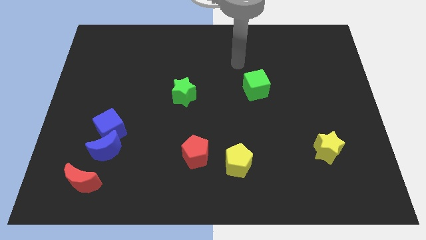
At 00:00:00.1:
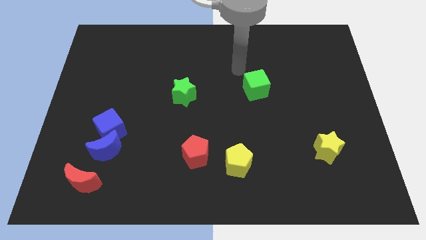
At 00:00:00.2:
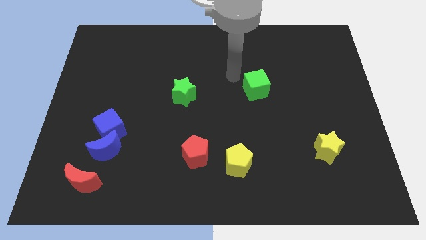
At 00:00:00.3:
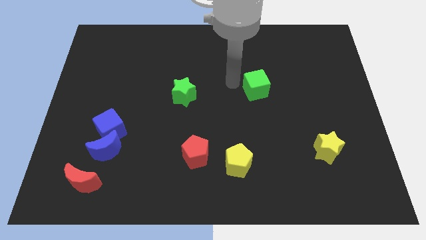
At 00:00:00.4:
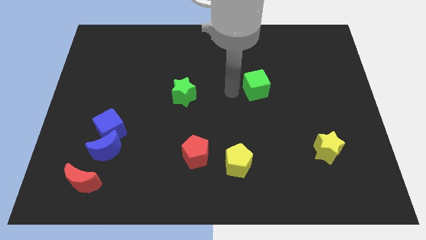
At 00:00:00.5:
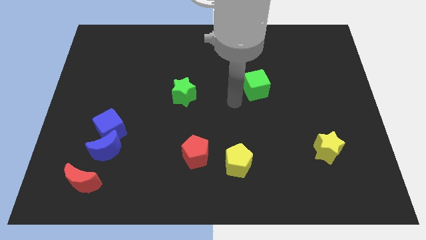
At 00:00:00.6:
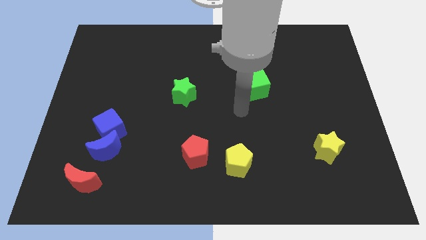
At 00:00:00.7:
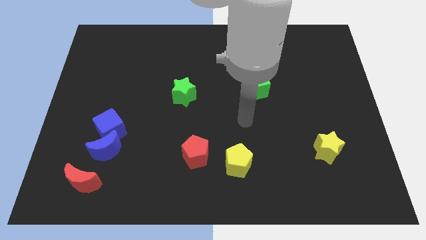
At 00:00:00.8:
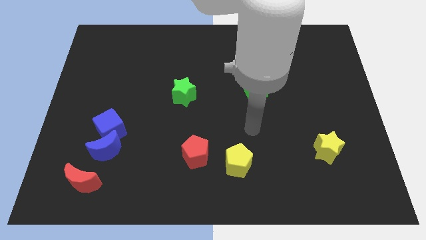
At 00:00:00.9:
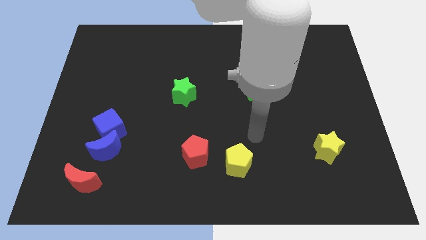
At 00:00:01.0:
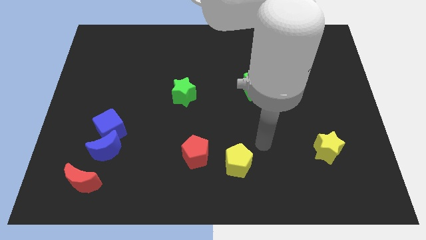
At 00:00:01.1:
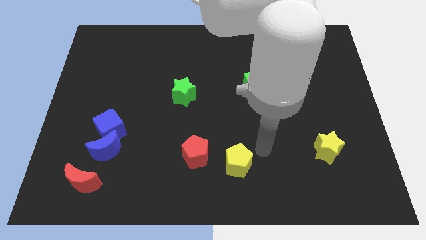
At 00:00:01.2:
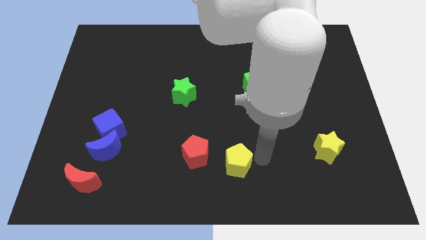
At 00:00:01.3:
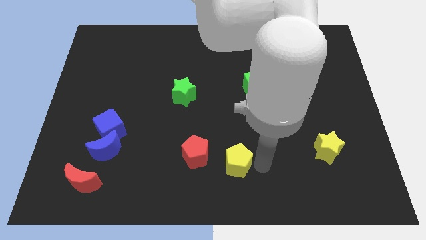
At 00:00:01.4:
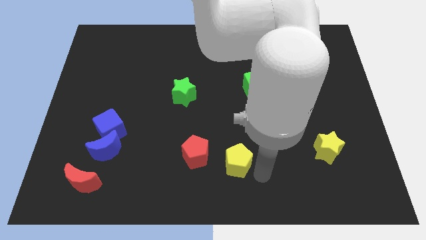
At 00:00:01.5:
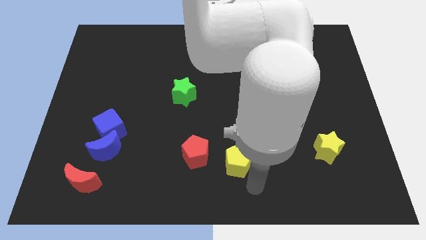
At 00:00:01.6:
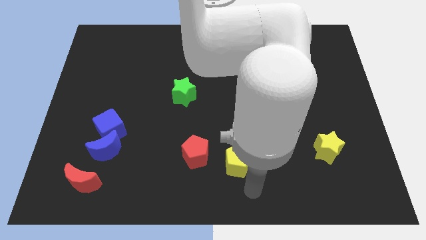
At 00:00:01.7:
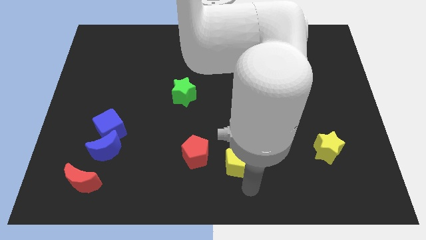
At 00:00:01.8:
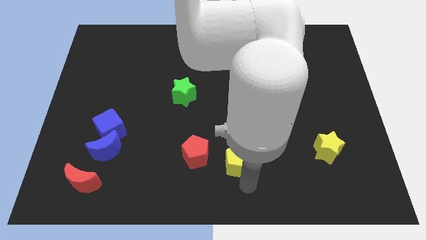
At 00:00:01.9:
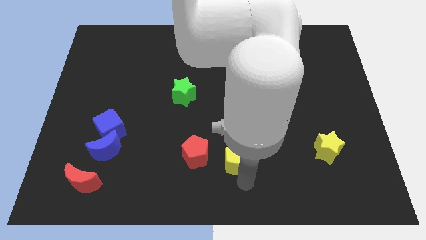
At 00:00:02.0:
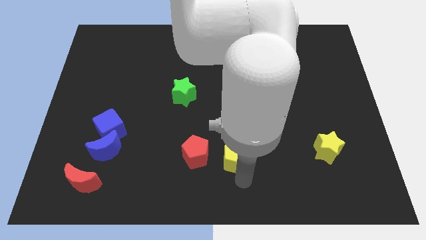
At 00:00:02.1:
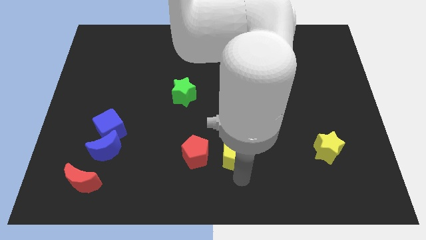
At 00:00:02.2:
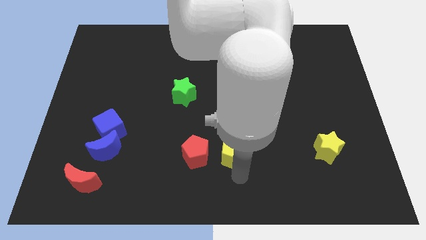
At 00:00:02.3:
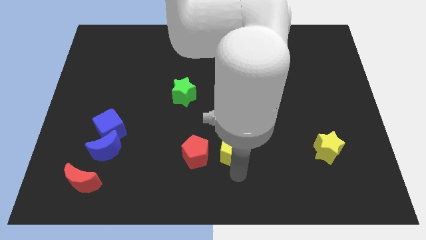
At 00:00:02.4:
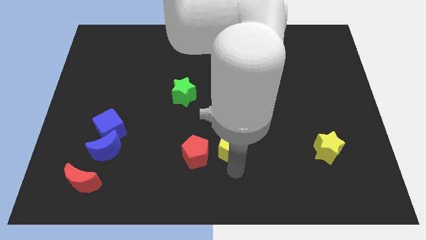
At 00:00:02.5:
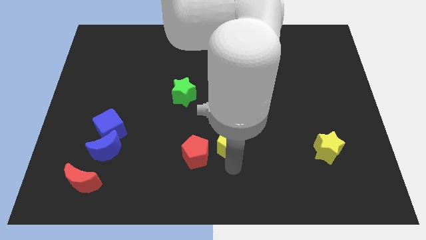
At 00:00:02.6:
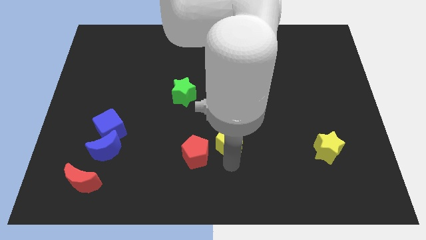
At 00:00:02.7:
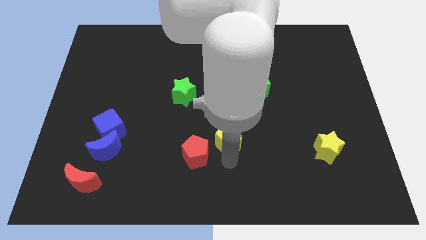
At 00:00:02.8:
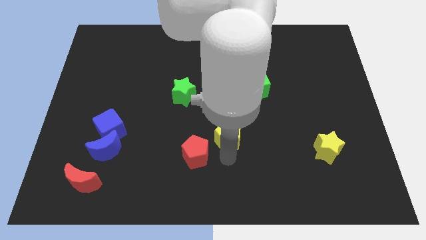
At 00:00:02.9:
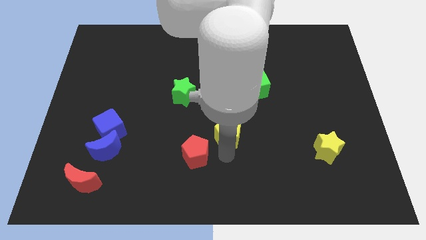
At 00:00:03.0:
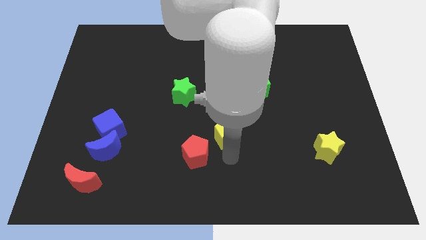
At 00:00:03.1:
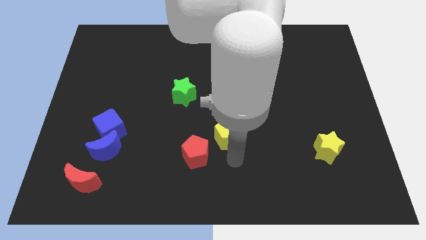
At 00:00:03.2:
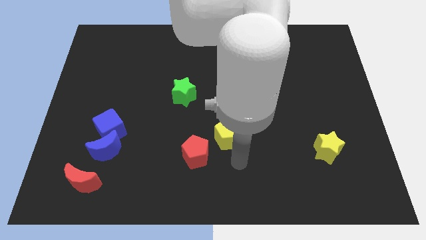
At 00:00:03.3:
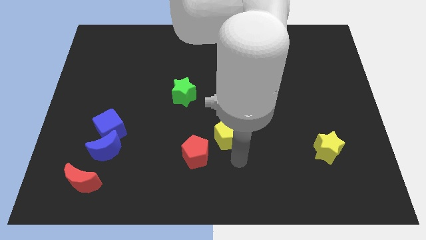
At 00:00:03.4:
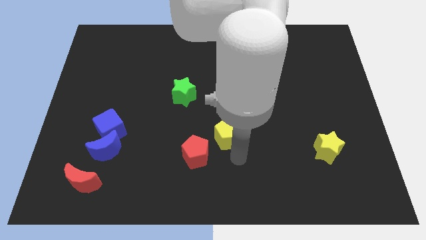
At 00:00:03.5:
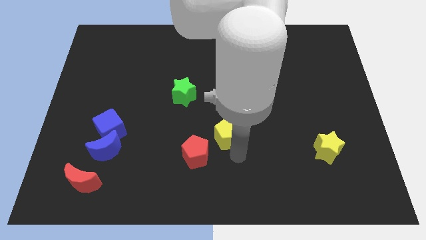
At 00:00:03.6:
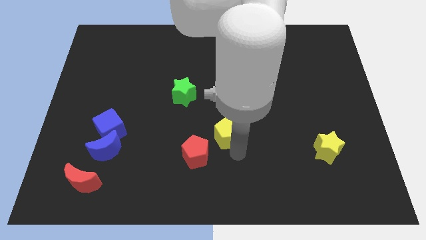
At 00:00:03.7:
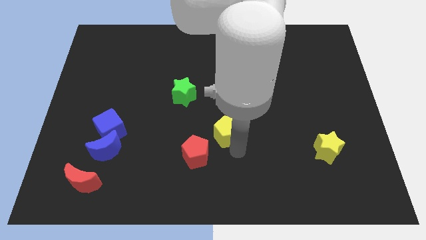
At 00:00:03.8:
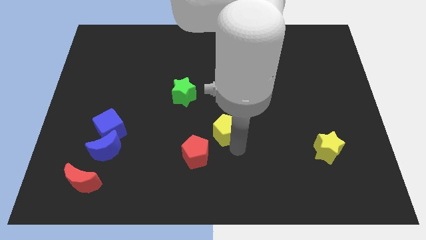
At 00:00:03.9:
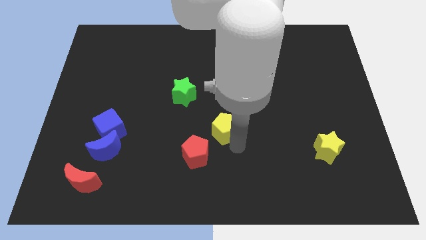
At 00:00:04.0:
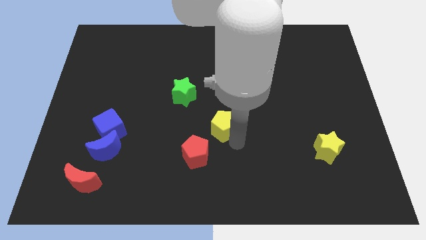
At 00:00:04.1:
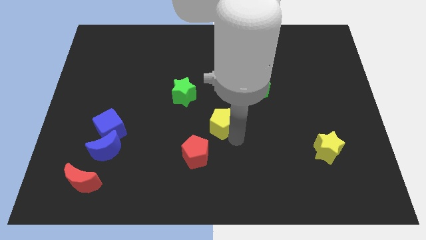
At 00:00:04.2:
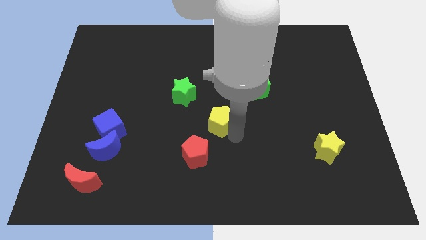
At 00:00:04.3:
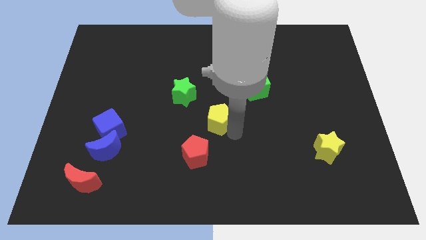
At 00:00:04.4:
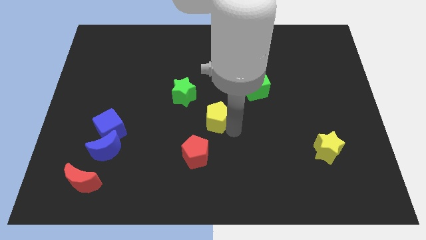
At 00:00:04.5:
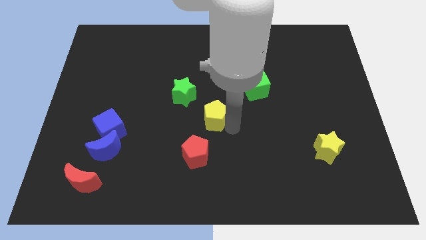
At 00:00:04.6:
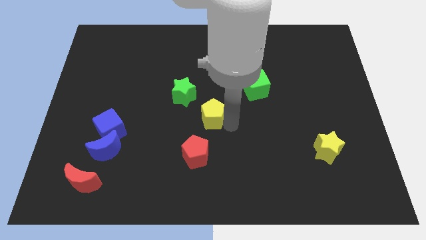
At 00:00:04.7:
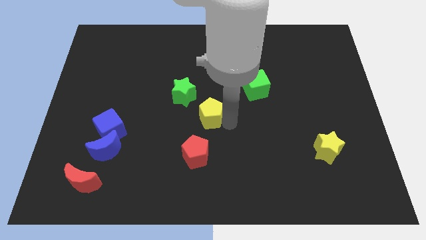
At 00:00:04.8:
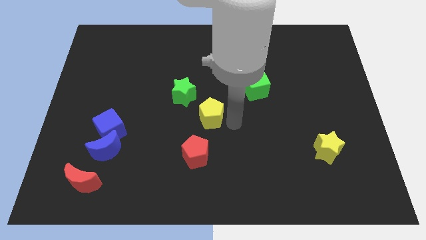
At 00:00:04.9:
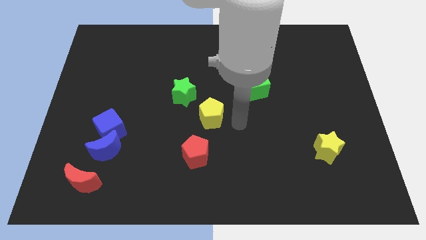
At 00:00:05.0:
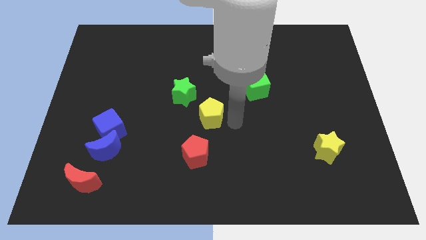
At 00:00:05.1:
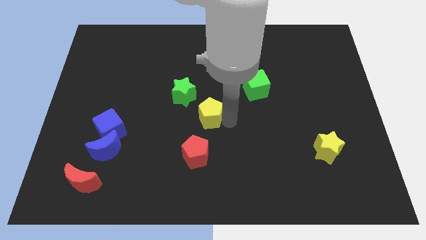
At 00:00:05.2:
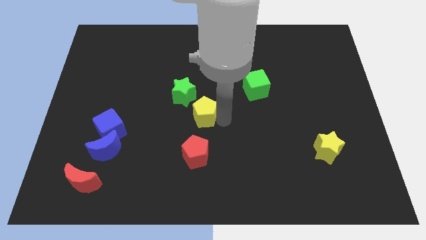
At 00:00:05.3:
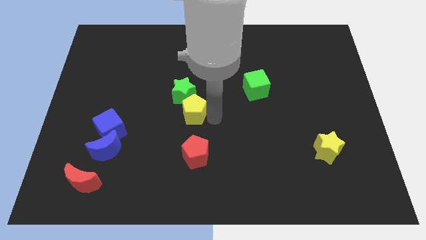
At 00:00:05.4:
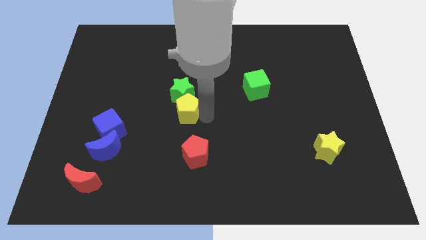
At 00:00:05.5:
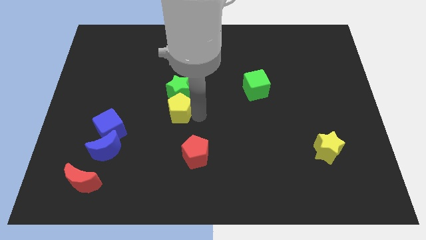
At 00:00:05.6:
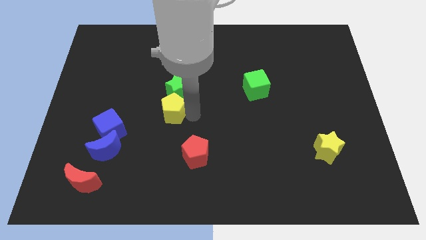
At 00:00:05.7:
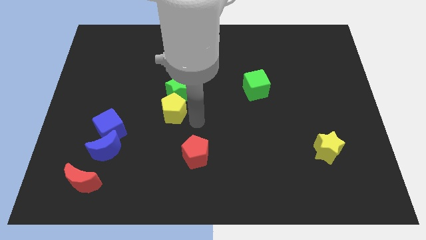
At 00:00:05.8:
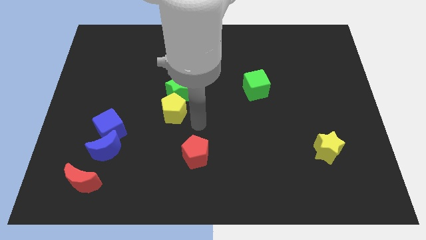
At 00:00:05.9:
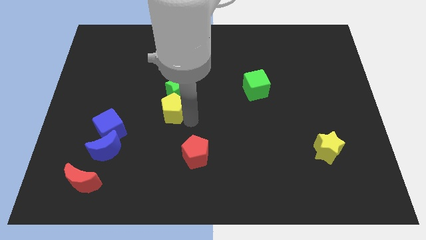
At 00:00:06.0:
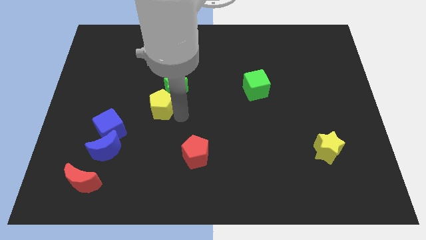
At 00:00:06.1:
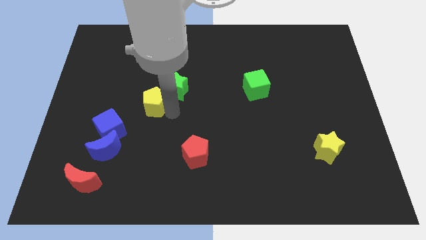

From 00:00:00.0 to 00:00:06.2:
move the yellow pentagon to the left of the green star

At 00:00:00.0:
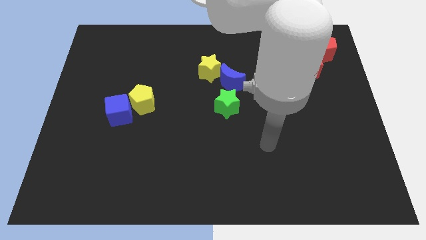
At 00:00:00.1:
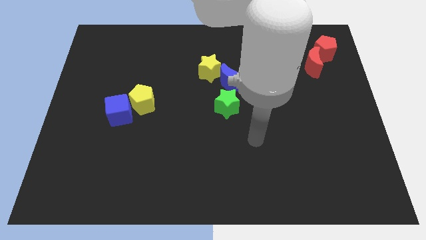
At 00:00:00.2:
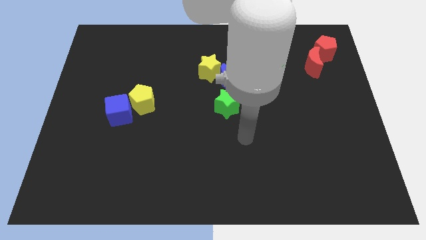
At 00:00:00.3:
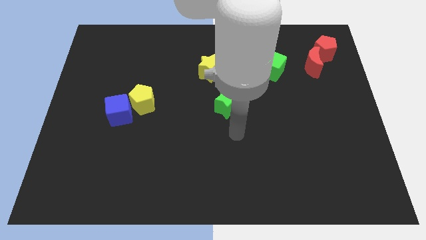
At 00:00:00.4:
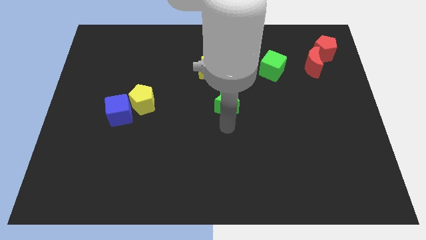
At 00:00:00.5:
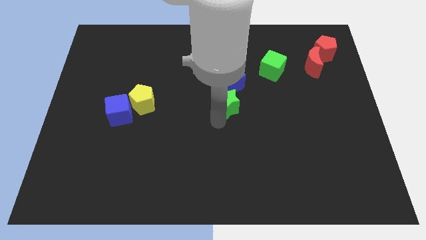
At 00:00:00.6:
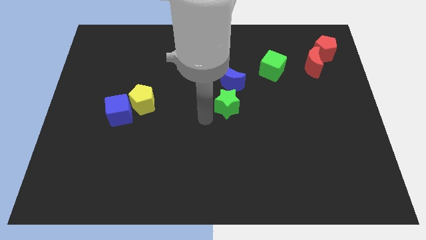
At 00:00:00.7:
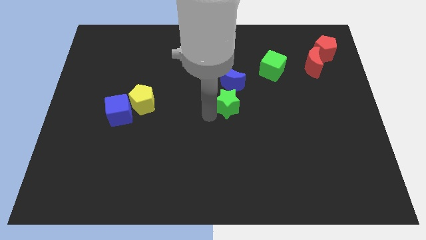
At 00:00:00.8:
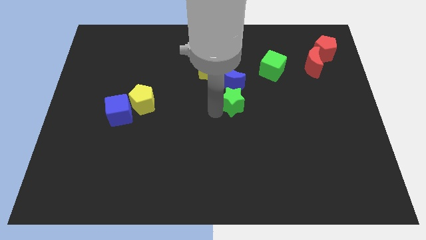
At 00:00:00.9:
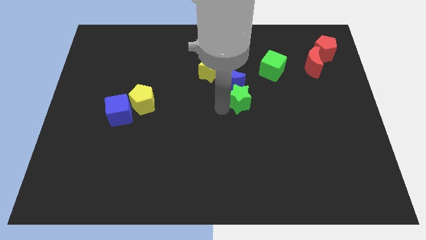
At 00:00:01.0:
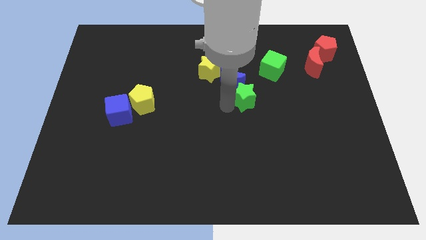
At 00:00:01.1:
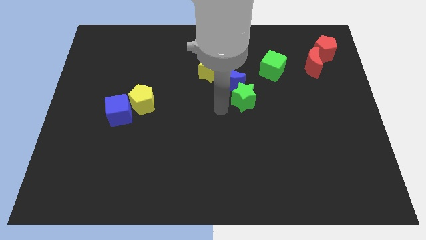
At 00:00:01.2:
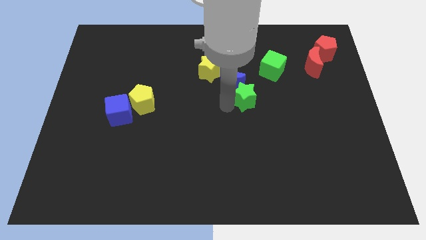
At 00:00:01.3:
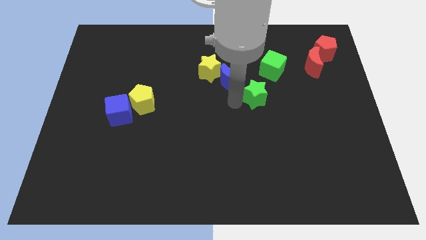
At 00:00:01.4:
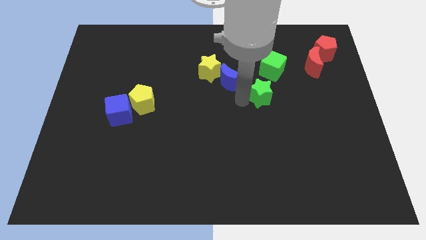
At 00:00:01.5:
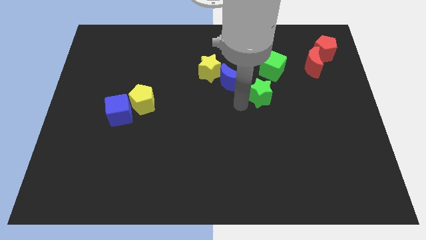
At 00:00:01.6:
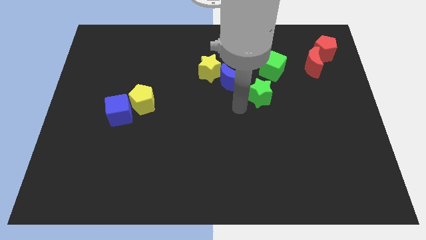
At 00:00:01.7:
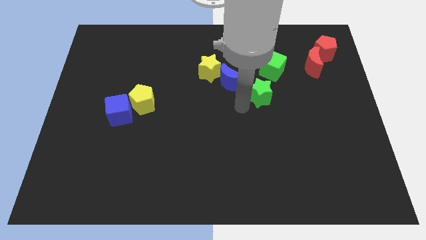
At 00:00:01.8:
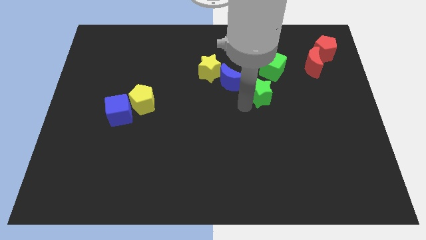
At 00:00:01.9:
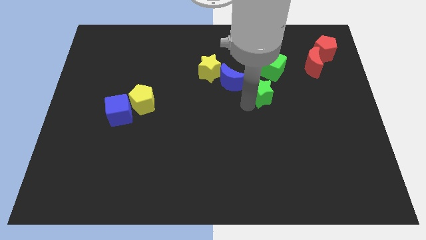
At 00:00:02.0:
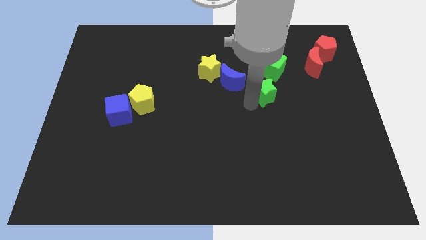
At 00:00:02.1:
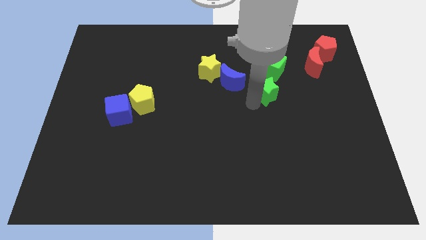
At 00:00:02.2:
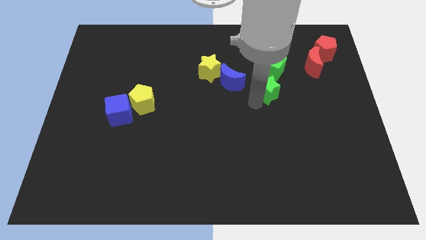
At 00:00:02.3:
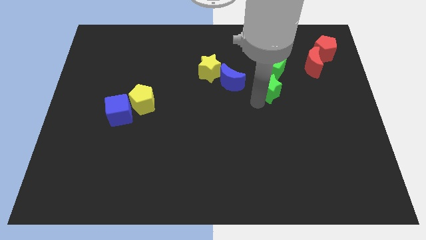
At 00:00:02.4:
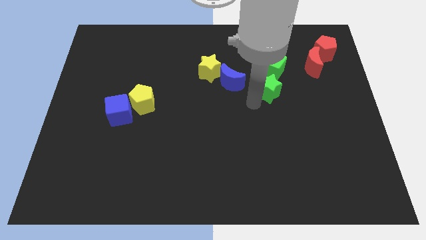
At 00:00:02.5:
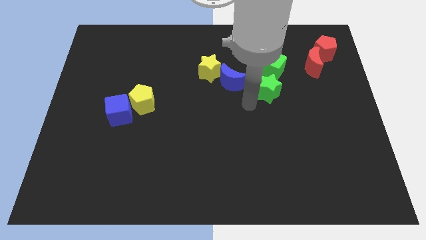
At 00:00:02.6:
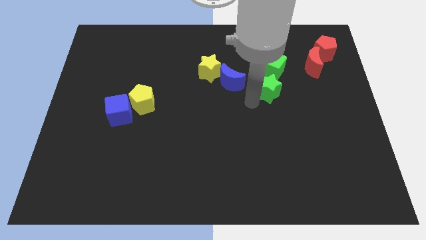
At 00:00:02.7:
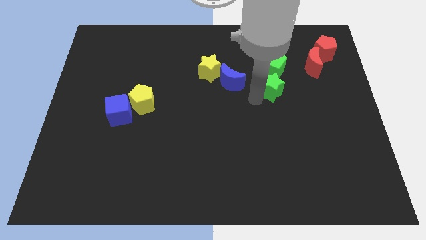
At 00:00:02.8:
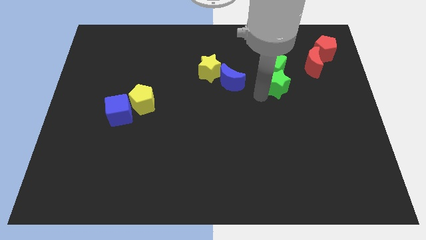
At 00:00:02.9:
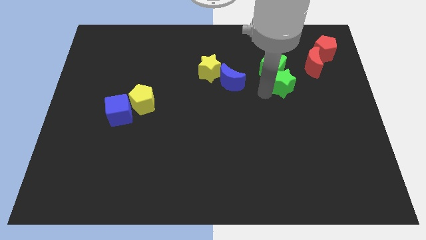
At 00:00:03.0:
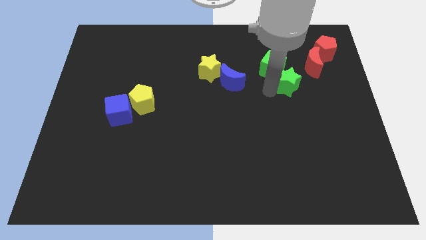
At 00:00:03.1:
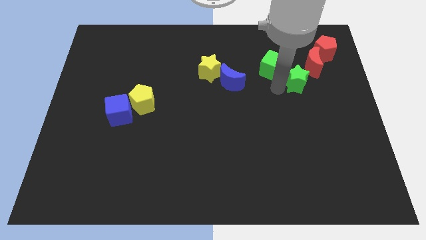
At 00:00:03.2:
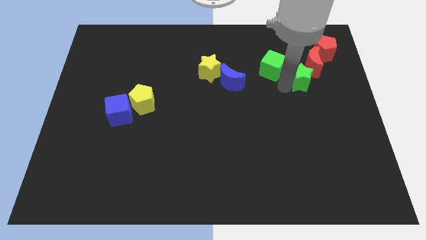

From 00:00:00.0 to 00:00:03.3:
put the green star to the bottom left side of the red pentagon
